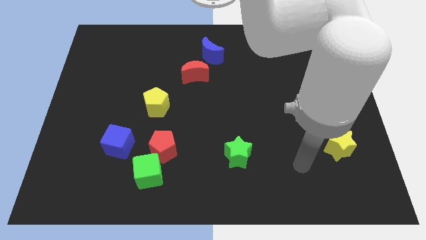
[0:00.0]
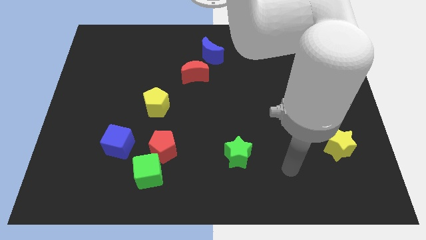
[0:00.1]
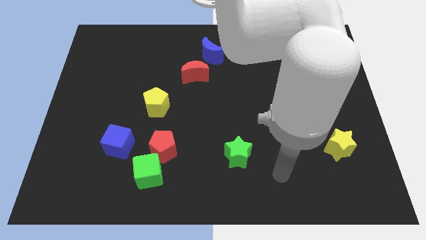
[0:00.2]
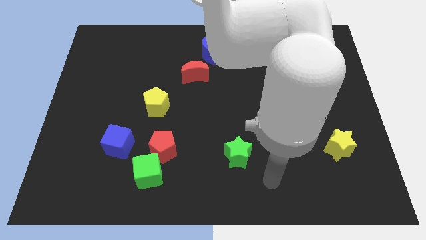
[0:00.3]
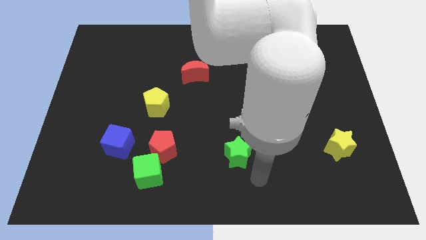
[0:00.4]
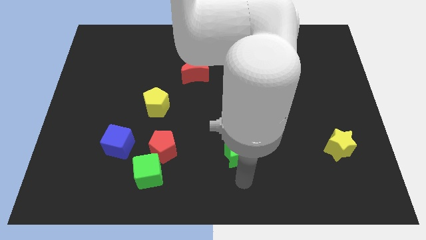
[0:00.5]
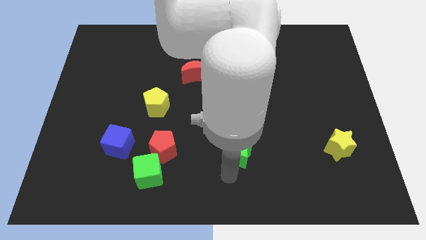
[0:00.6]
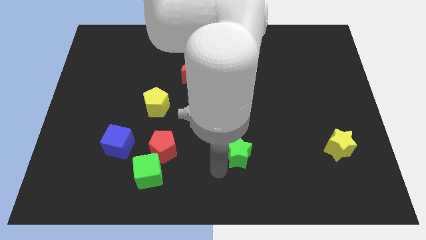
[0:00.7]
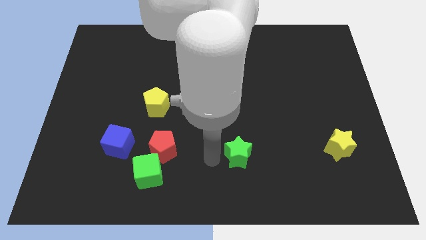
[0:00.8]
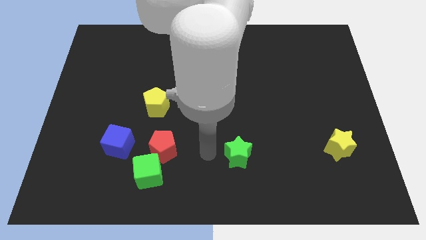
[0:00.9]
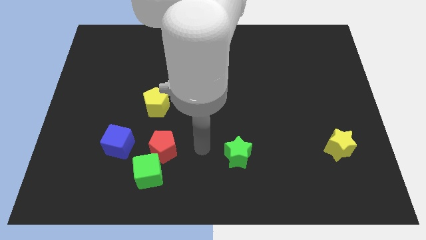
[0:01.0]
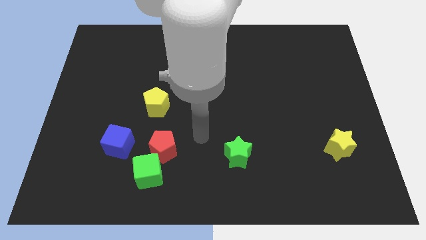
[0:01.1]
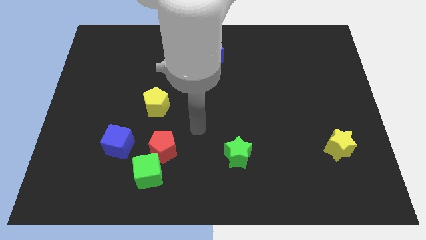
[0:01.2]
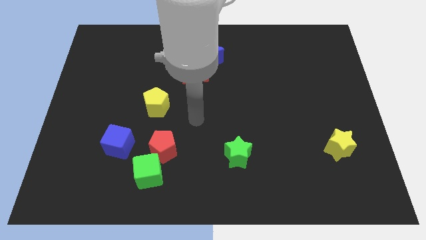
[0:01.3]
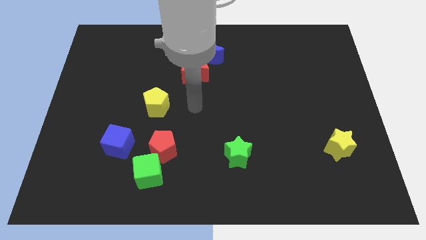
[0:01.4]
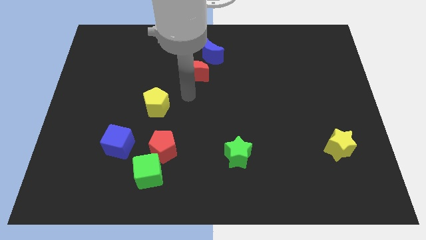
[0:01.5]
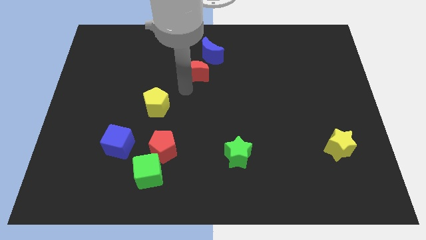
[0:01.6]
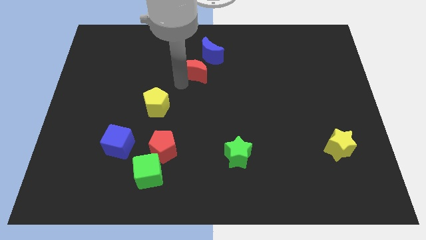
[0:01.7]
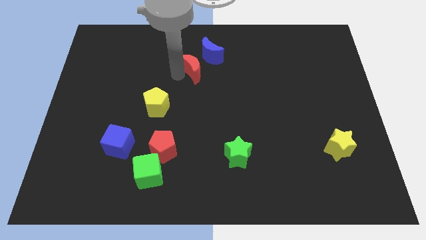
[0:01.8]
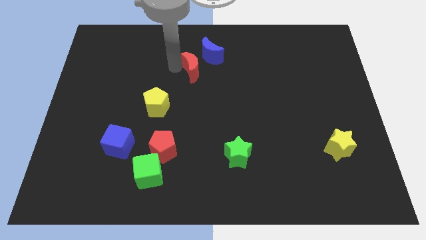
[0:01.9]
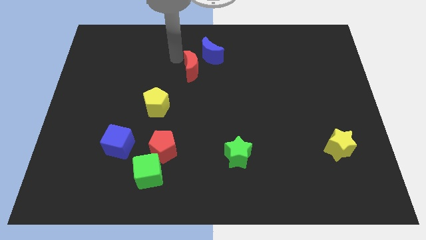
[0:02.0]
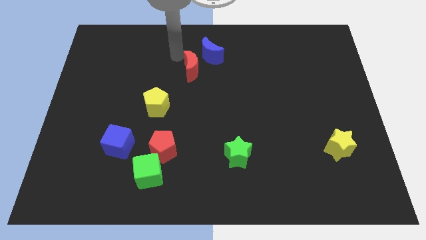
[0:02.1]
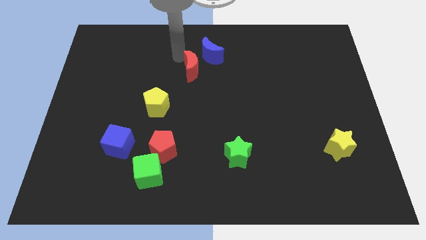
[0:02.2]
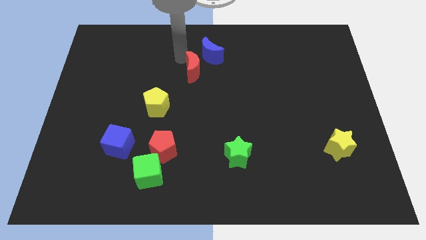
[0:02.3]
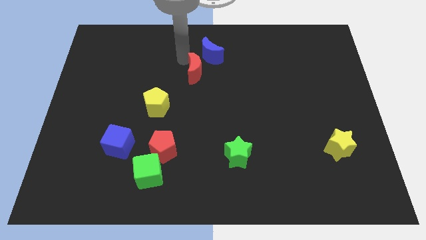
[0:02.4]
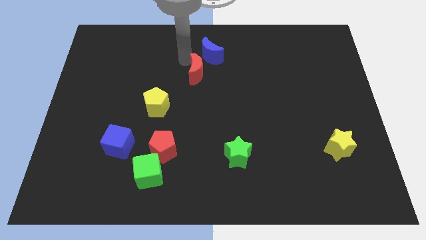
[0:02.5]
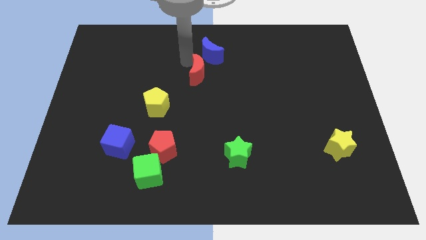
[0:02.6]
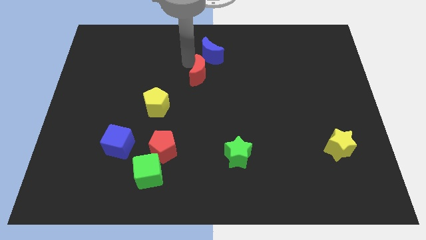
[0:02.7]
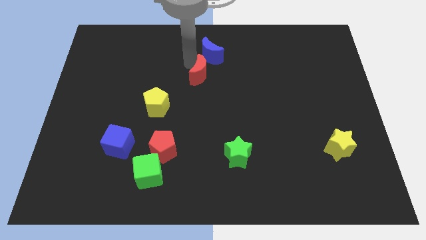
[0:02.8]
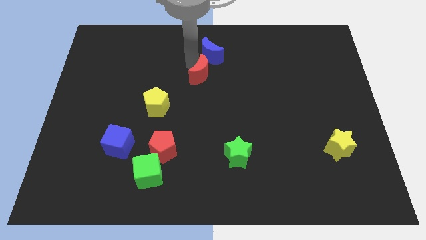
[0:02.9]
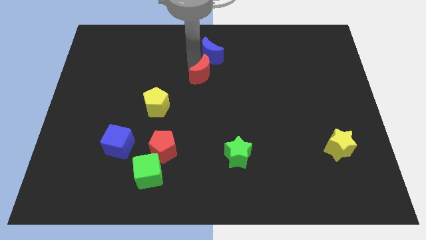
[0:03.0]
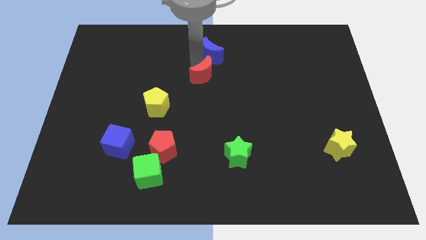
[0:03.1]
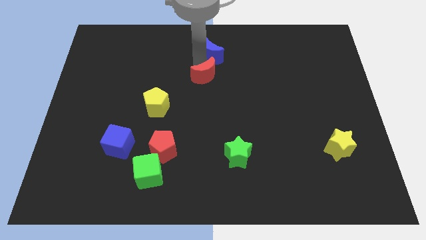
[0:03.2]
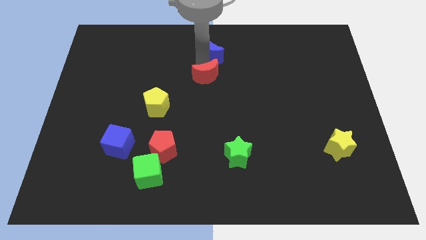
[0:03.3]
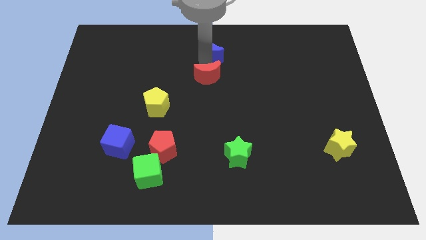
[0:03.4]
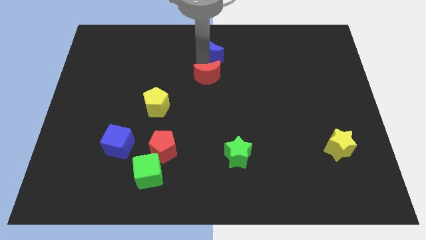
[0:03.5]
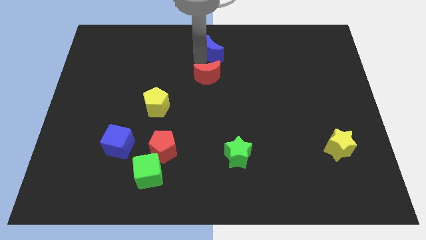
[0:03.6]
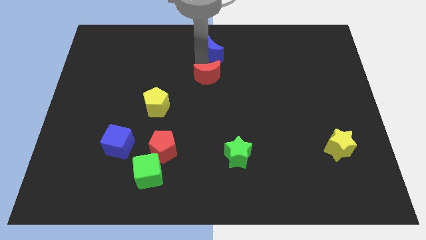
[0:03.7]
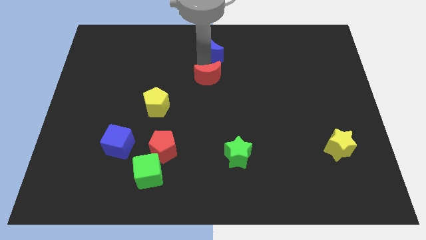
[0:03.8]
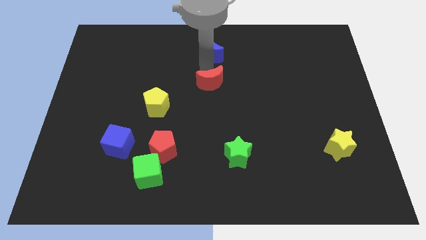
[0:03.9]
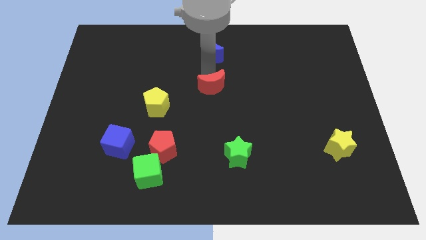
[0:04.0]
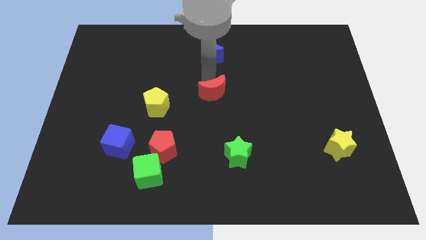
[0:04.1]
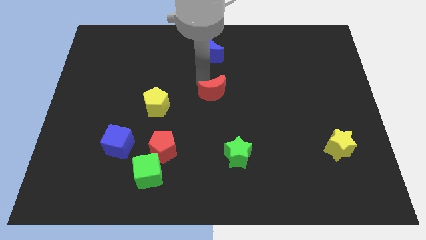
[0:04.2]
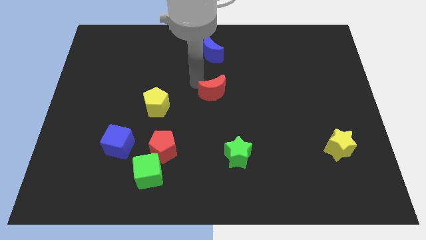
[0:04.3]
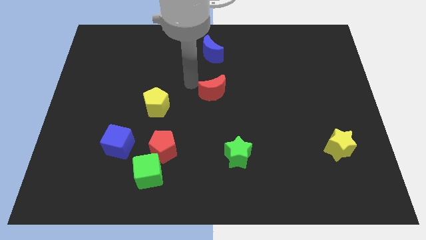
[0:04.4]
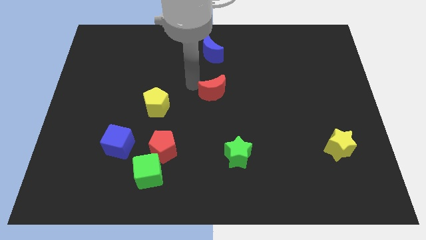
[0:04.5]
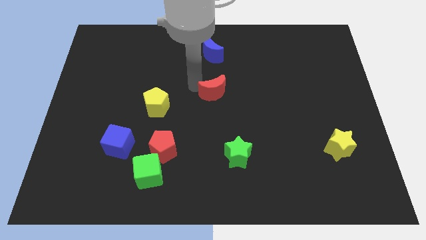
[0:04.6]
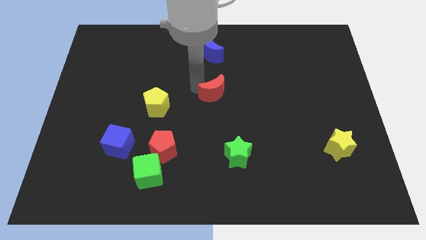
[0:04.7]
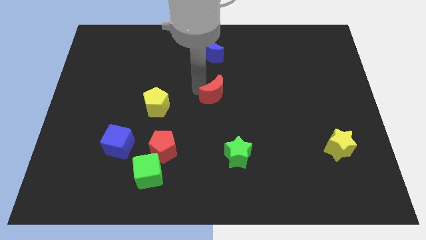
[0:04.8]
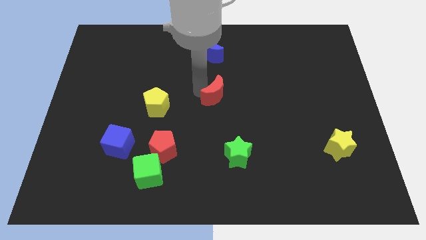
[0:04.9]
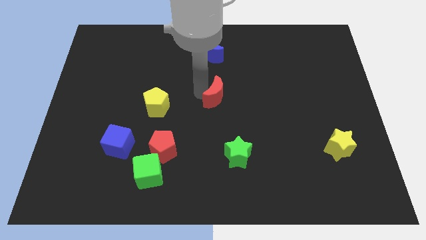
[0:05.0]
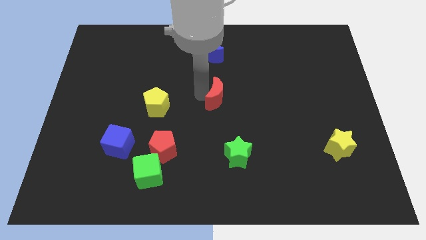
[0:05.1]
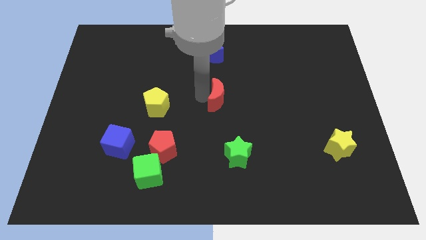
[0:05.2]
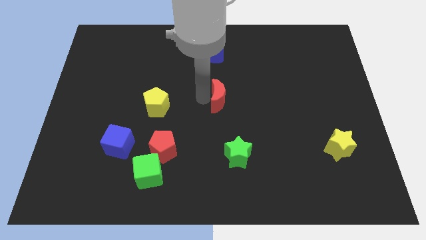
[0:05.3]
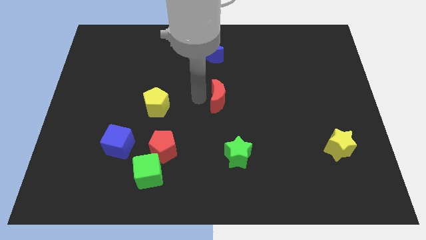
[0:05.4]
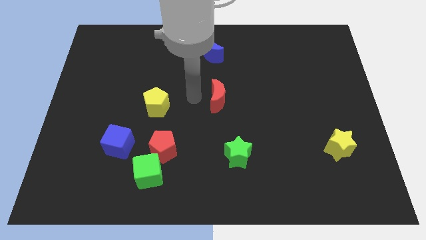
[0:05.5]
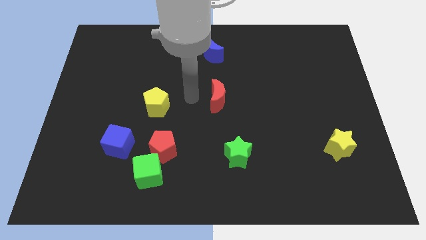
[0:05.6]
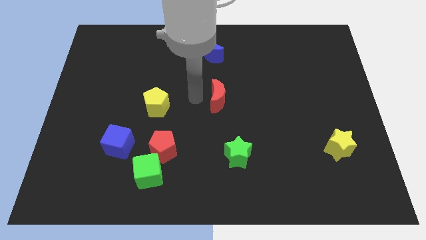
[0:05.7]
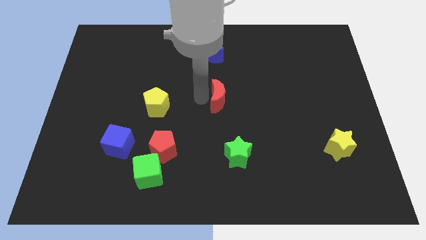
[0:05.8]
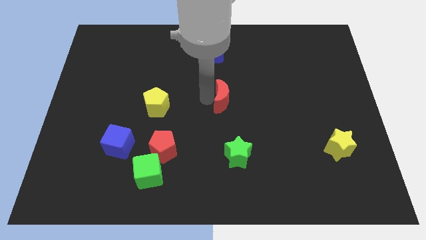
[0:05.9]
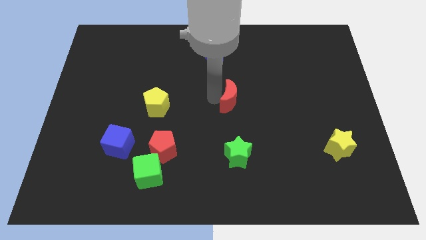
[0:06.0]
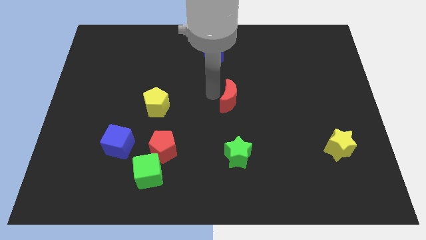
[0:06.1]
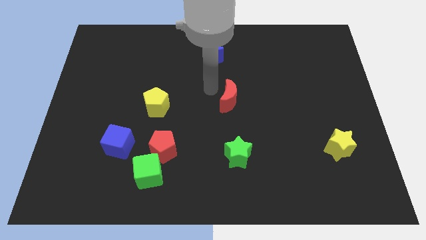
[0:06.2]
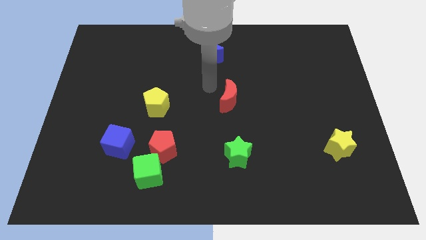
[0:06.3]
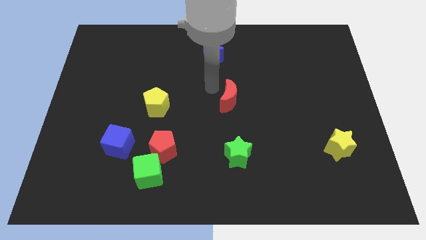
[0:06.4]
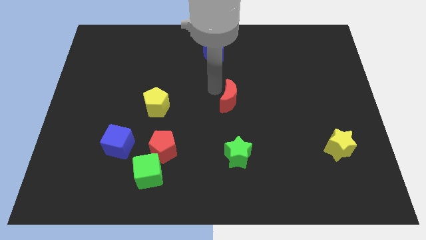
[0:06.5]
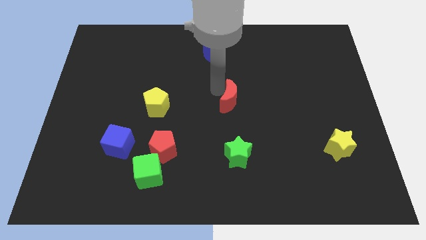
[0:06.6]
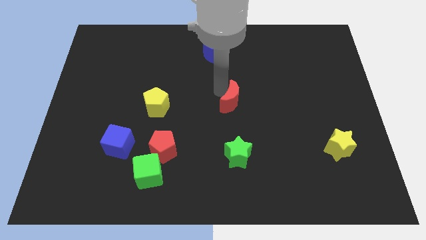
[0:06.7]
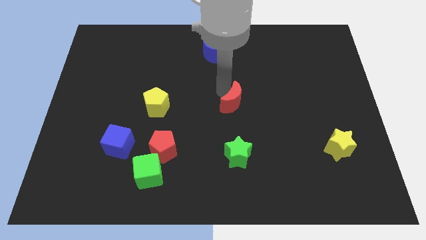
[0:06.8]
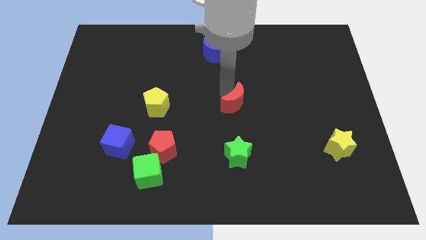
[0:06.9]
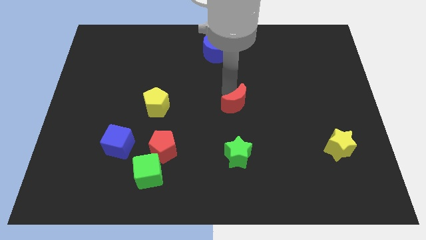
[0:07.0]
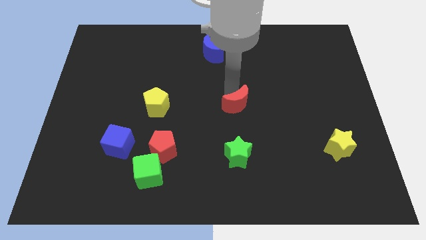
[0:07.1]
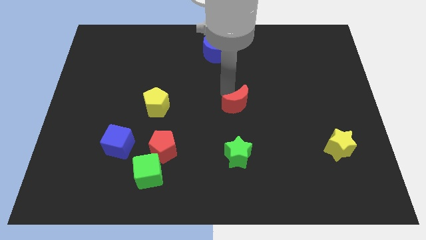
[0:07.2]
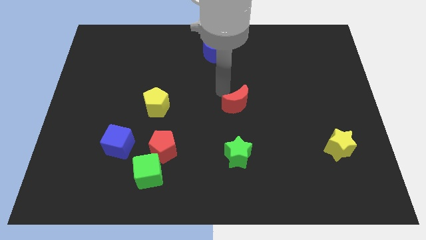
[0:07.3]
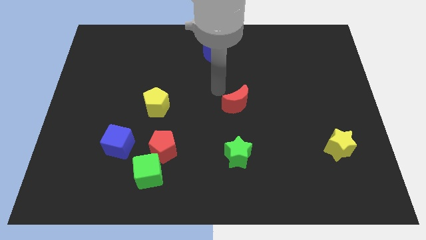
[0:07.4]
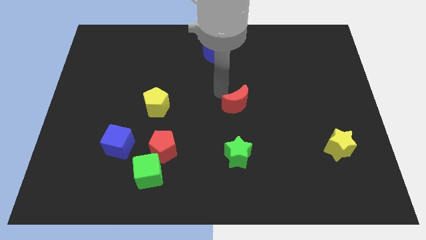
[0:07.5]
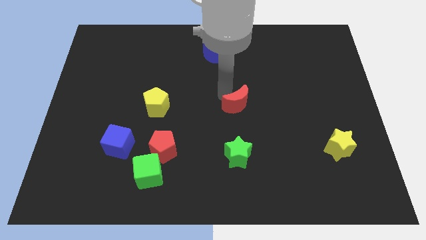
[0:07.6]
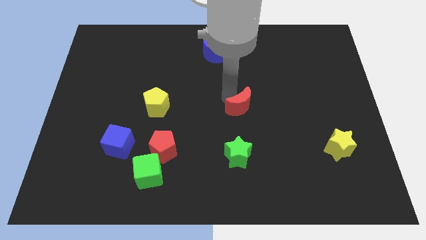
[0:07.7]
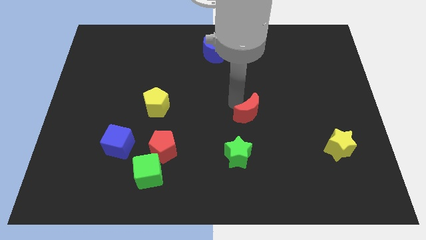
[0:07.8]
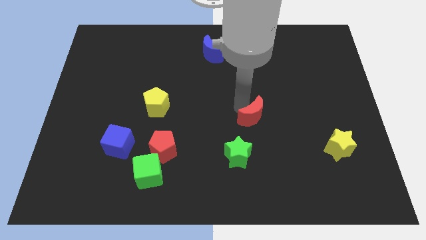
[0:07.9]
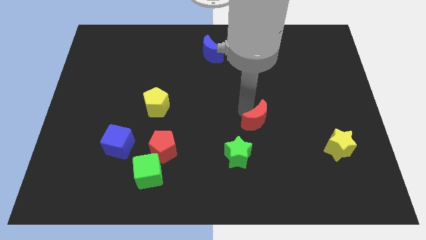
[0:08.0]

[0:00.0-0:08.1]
move the red moon down and to the right
